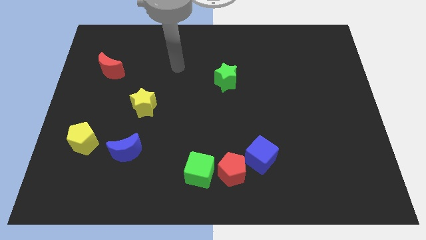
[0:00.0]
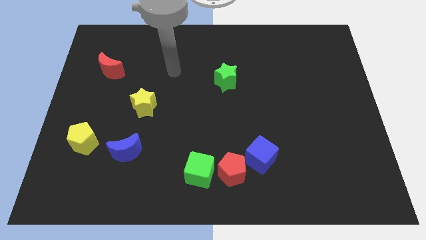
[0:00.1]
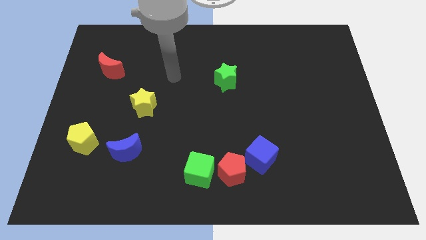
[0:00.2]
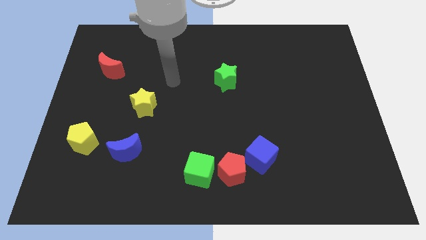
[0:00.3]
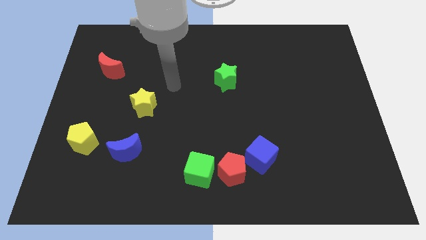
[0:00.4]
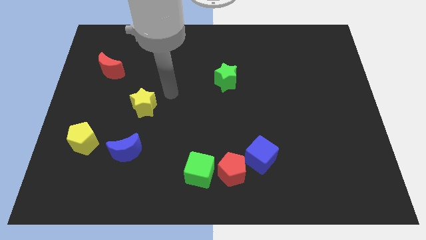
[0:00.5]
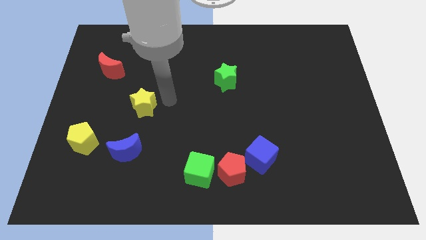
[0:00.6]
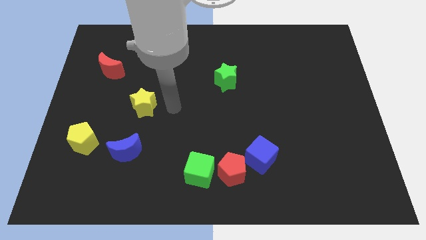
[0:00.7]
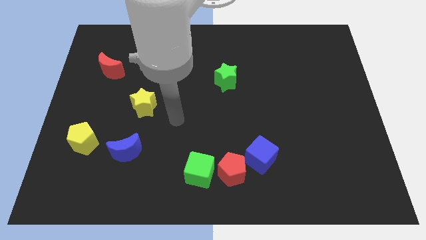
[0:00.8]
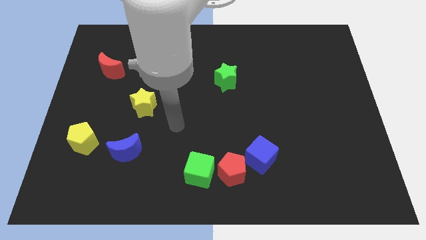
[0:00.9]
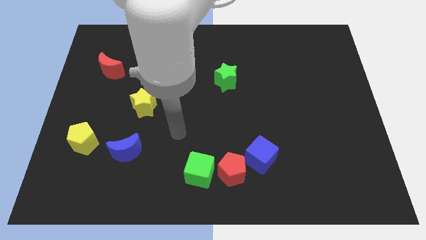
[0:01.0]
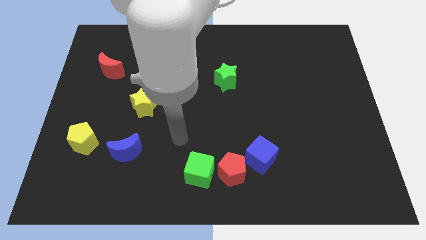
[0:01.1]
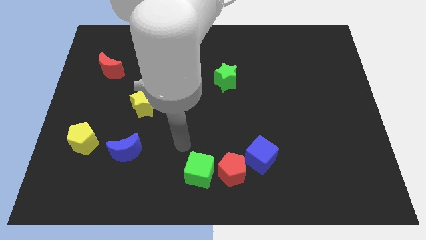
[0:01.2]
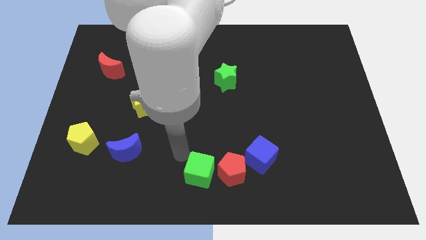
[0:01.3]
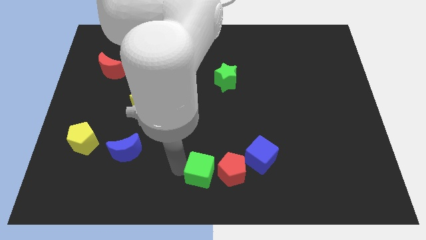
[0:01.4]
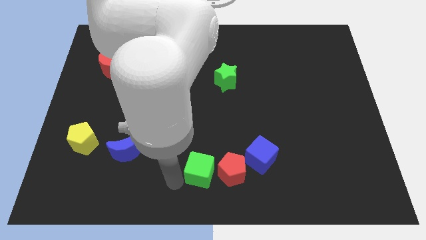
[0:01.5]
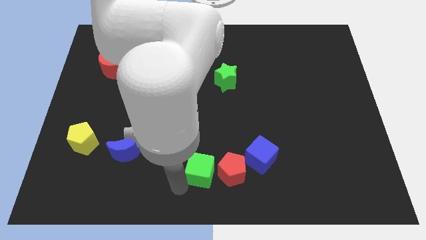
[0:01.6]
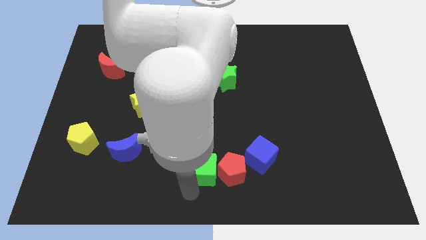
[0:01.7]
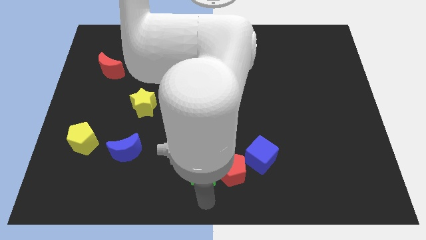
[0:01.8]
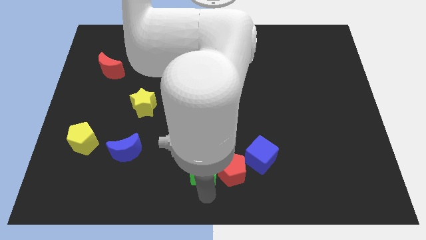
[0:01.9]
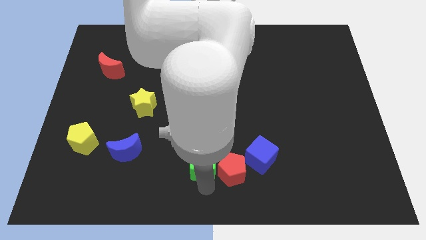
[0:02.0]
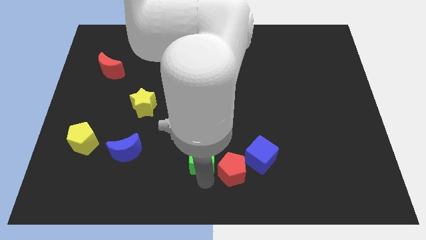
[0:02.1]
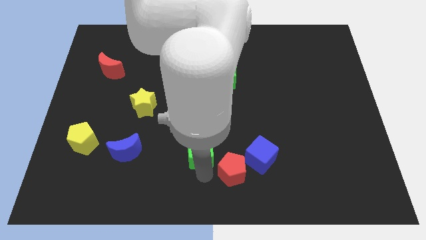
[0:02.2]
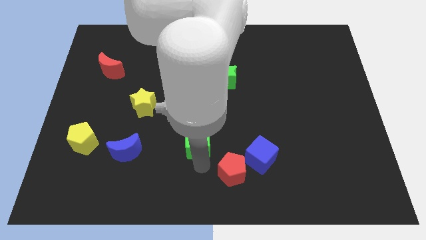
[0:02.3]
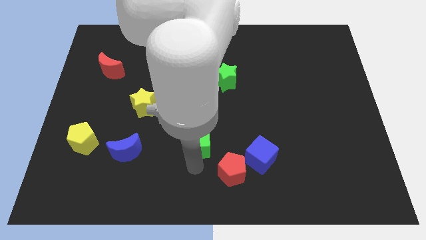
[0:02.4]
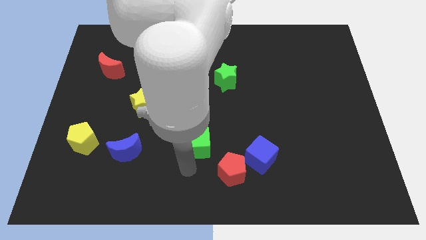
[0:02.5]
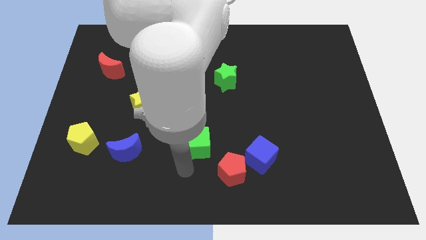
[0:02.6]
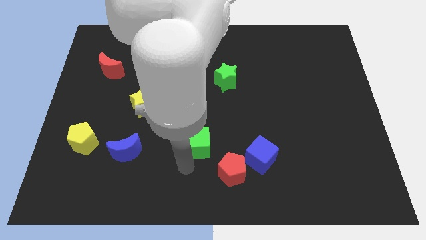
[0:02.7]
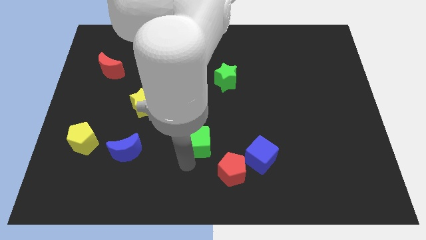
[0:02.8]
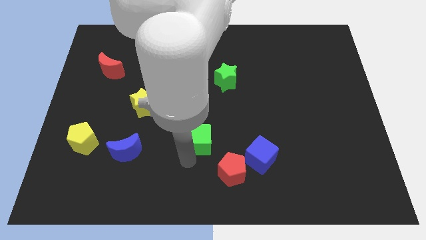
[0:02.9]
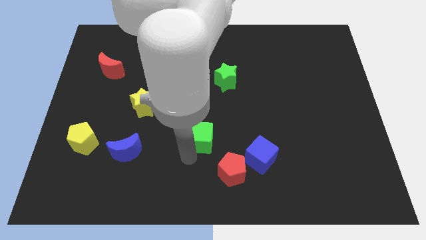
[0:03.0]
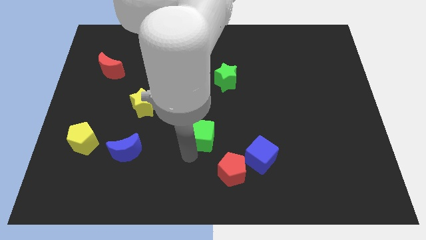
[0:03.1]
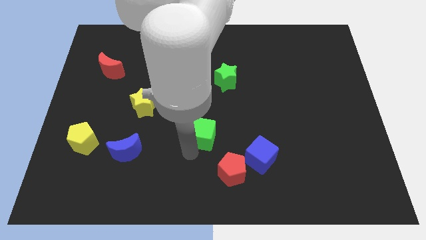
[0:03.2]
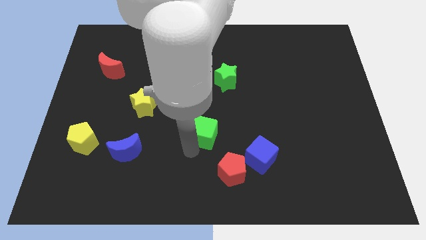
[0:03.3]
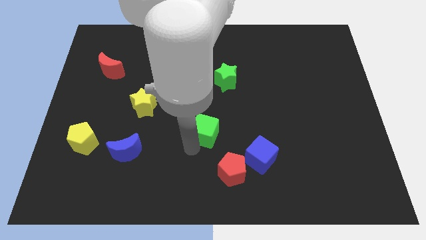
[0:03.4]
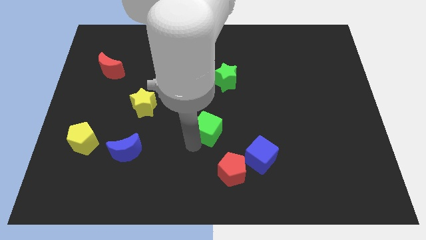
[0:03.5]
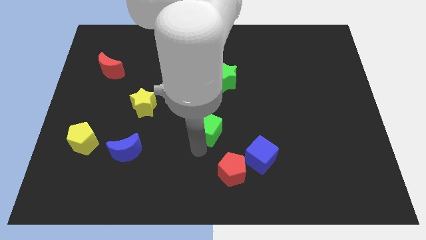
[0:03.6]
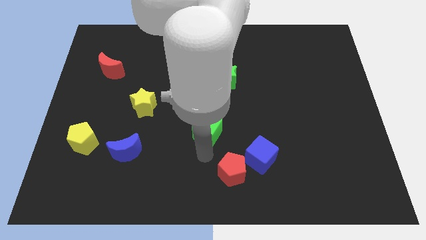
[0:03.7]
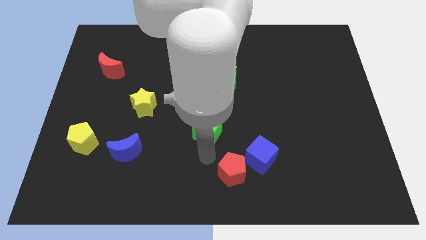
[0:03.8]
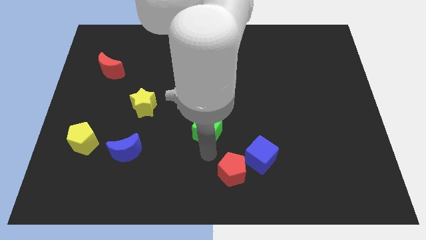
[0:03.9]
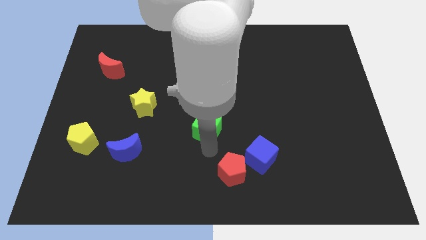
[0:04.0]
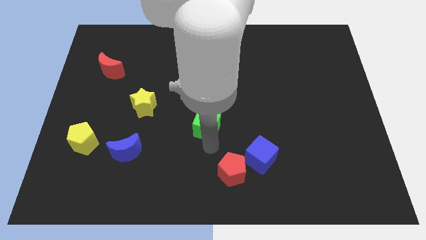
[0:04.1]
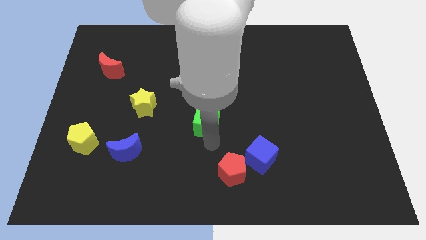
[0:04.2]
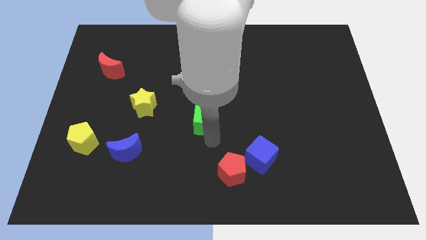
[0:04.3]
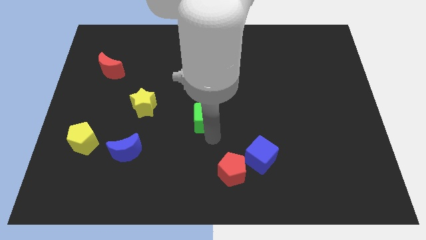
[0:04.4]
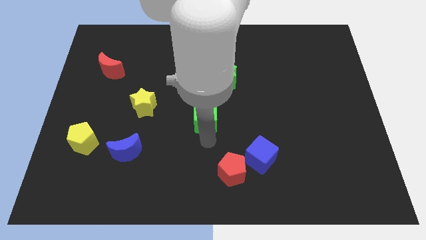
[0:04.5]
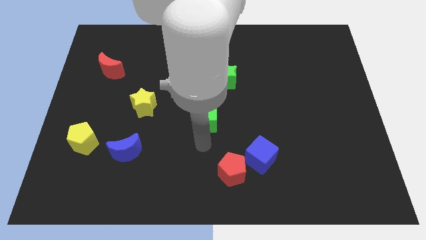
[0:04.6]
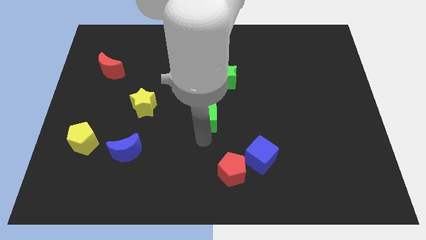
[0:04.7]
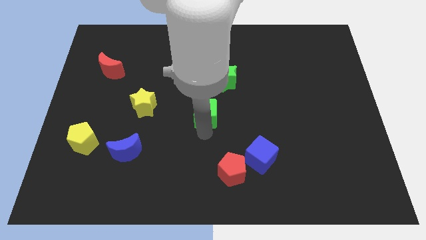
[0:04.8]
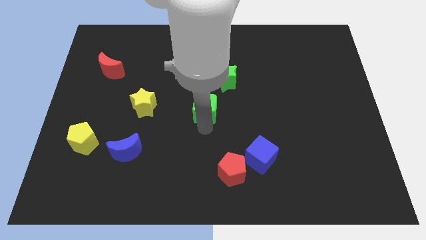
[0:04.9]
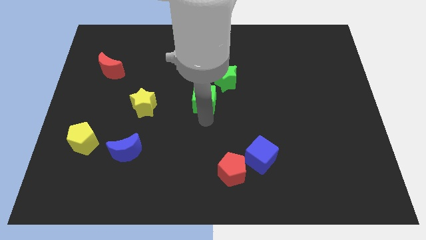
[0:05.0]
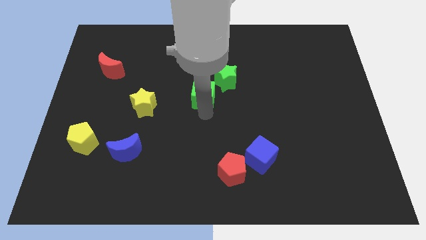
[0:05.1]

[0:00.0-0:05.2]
push the green cube up

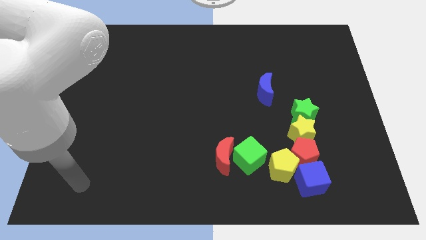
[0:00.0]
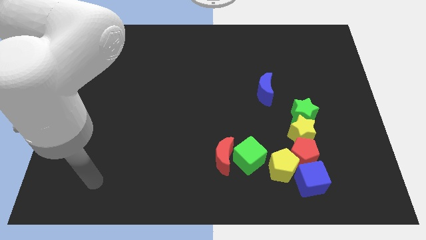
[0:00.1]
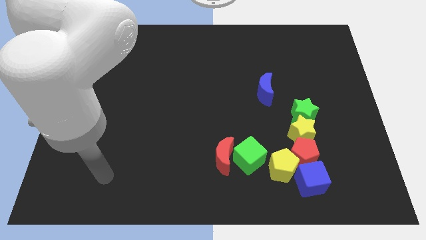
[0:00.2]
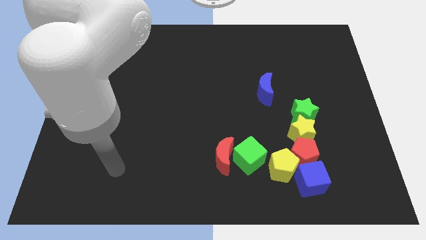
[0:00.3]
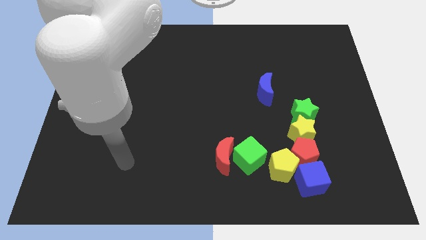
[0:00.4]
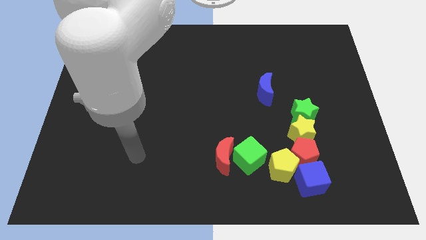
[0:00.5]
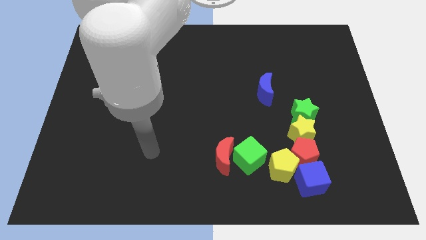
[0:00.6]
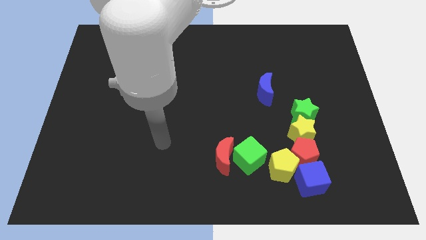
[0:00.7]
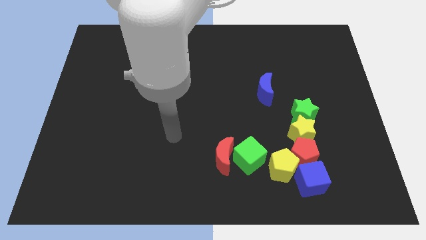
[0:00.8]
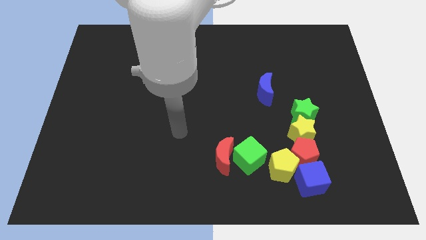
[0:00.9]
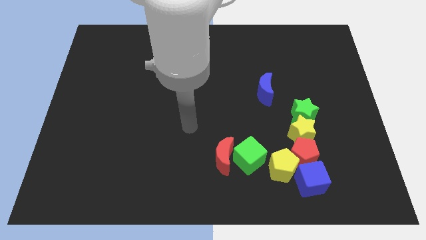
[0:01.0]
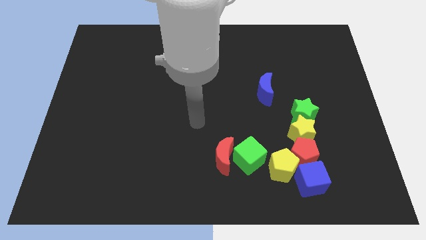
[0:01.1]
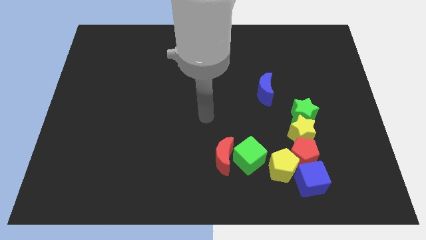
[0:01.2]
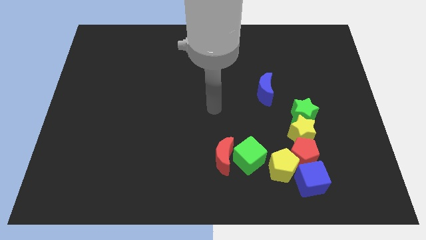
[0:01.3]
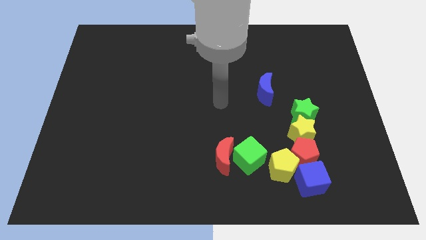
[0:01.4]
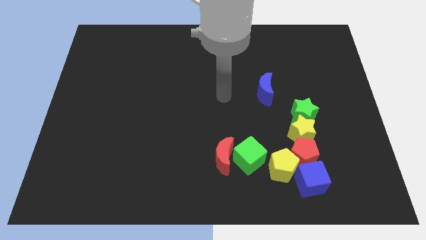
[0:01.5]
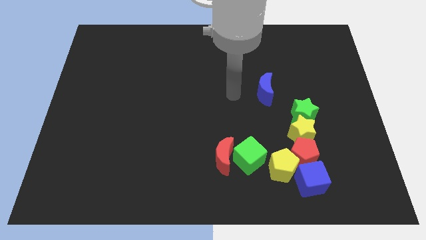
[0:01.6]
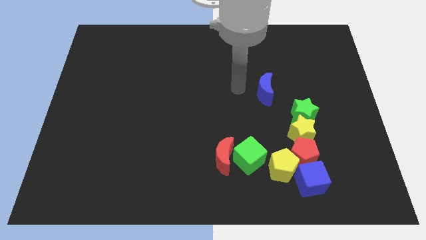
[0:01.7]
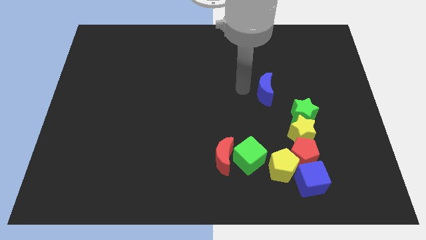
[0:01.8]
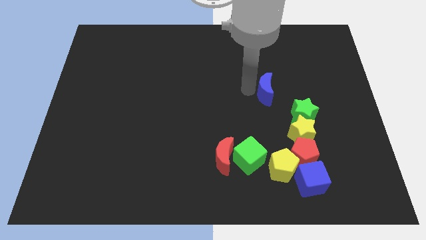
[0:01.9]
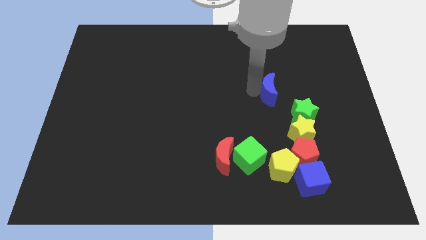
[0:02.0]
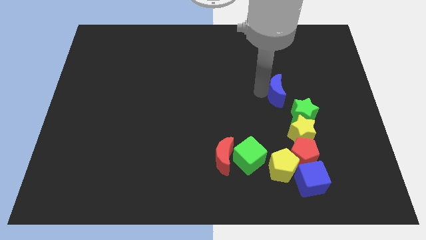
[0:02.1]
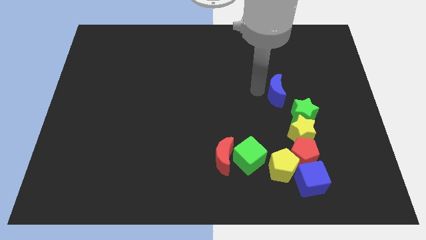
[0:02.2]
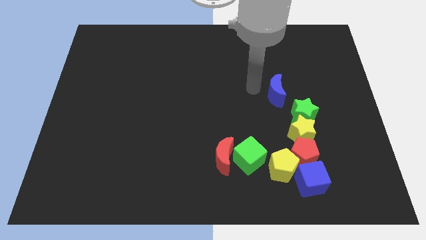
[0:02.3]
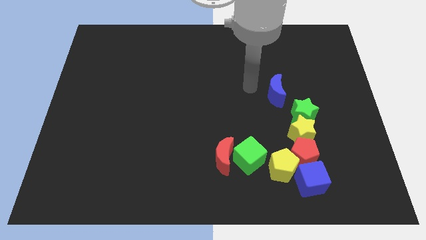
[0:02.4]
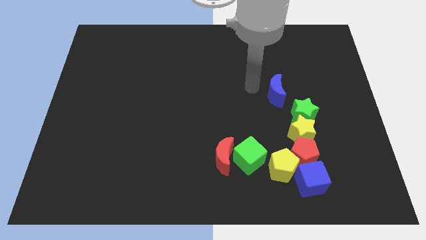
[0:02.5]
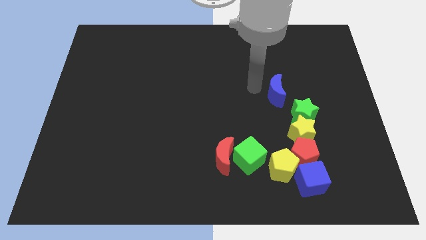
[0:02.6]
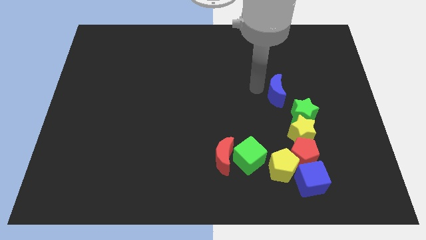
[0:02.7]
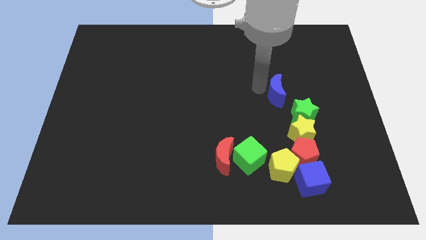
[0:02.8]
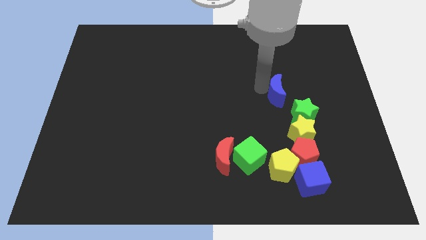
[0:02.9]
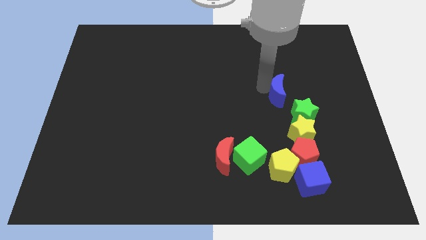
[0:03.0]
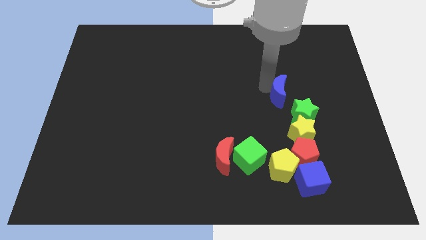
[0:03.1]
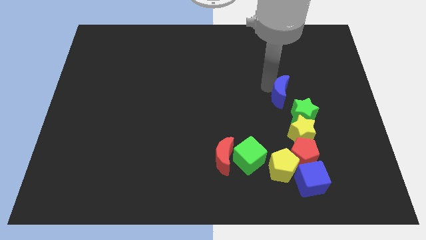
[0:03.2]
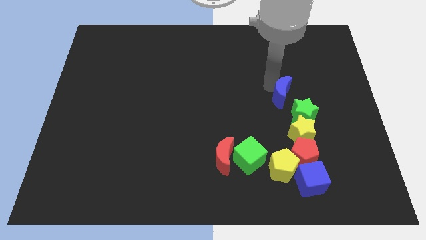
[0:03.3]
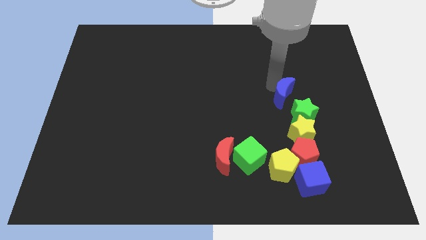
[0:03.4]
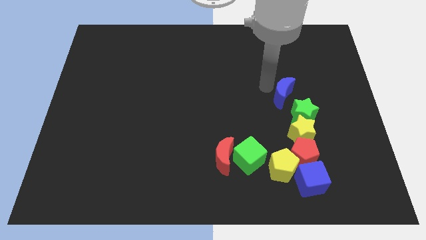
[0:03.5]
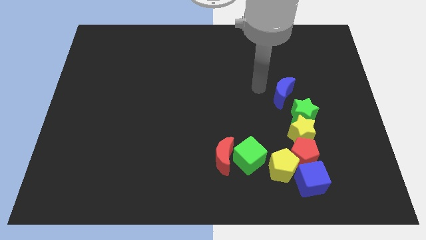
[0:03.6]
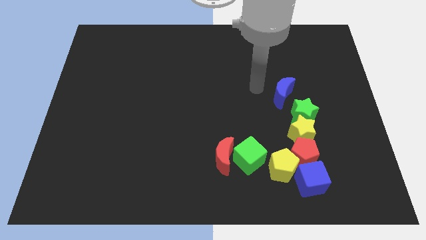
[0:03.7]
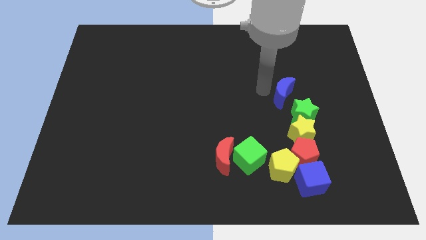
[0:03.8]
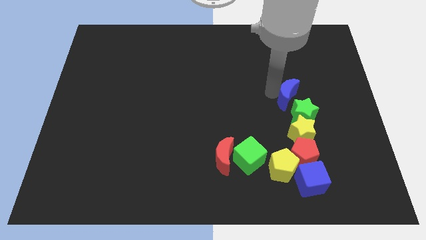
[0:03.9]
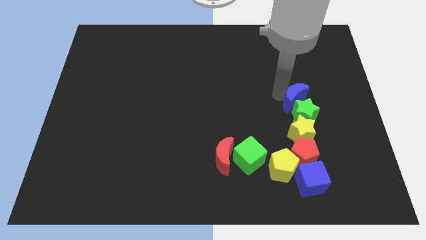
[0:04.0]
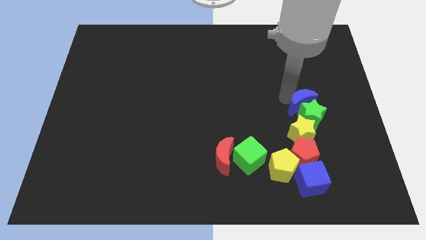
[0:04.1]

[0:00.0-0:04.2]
move the blue moon downwards and to the right diagonally a little bit
